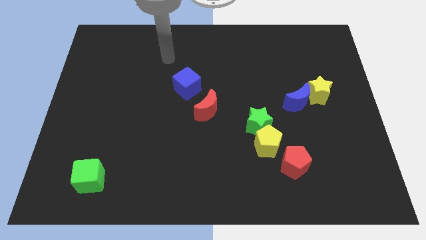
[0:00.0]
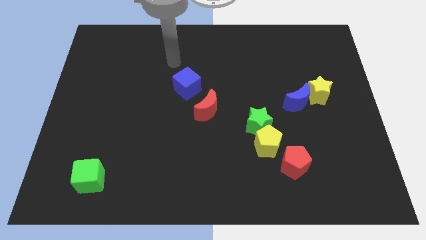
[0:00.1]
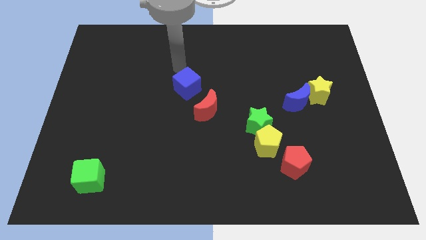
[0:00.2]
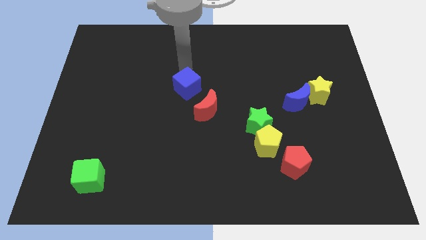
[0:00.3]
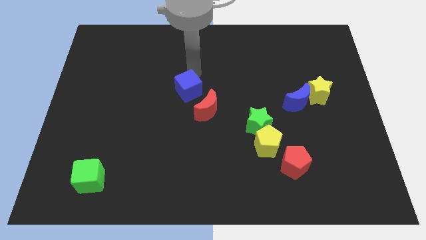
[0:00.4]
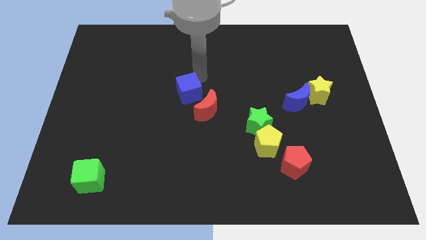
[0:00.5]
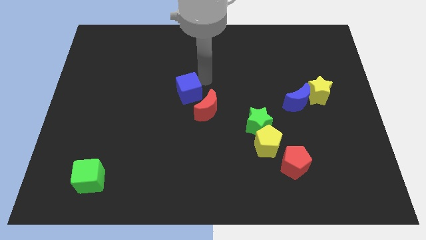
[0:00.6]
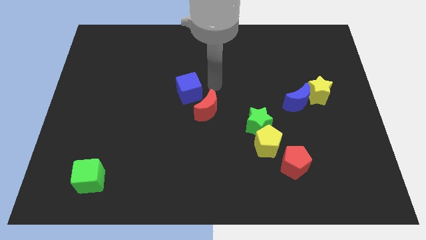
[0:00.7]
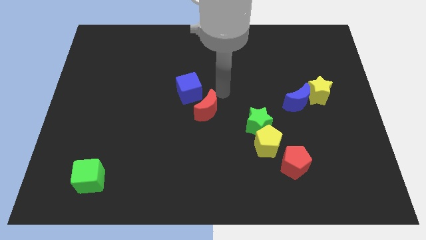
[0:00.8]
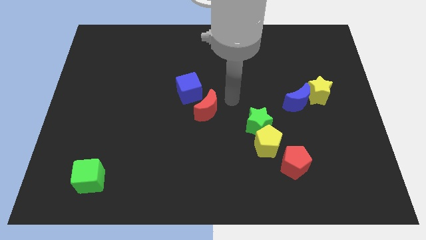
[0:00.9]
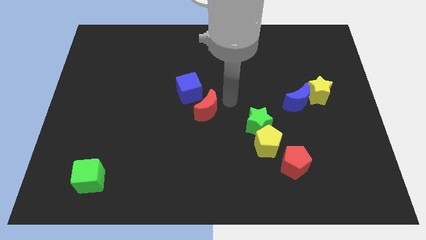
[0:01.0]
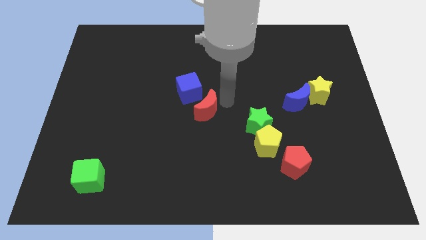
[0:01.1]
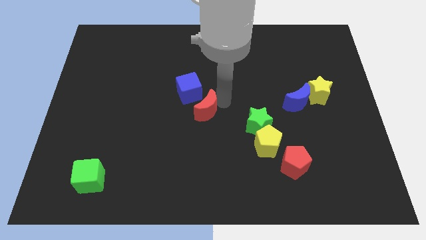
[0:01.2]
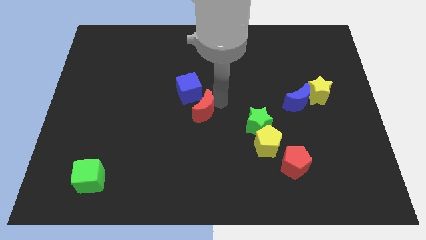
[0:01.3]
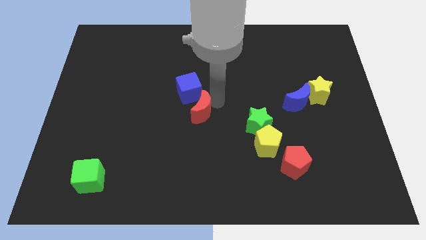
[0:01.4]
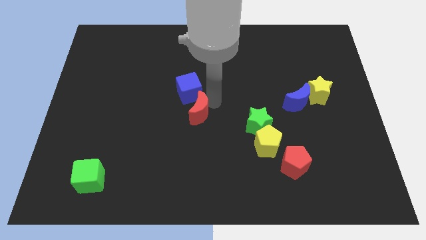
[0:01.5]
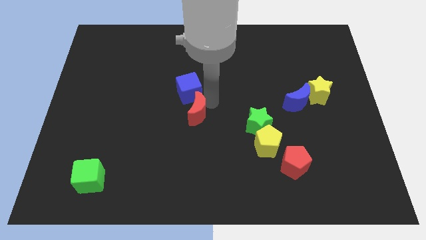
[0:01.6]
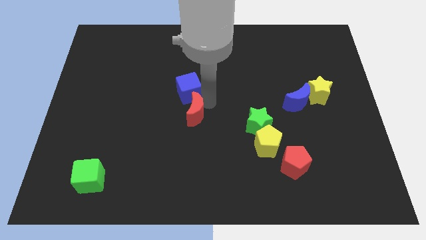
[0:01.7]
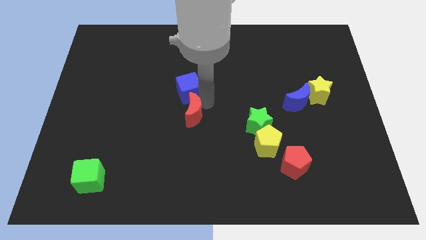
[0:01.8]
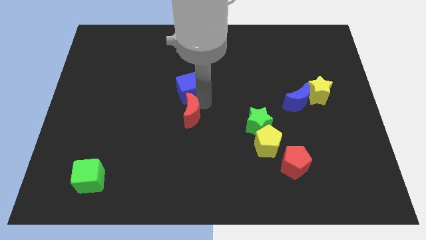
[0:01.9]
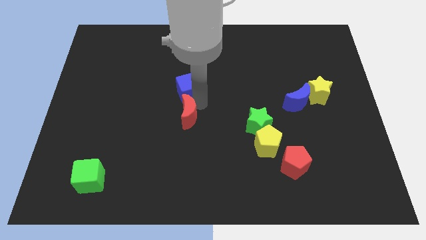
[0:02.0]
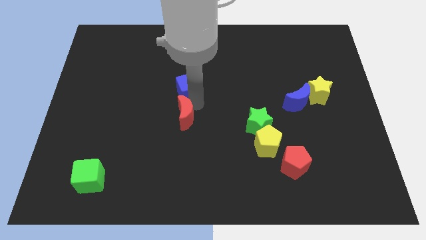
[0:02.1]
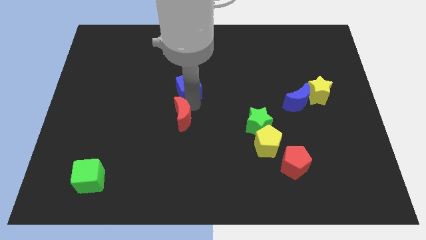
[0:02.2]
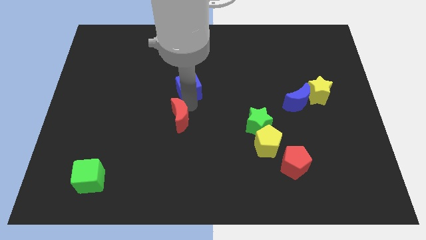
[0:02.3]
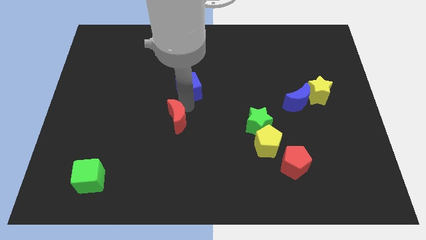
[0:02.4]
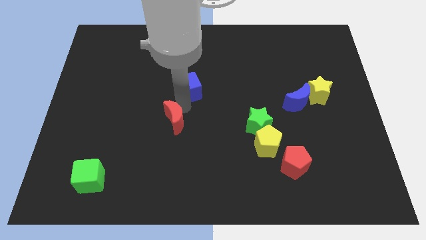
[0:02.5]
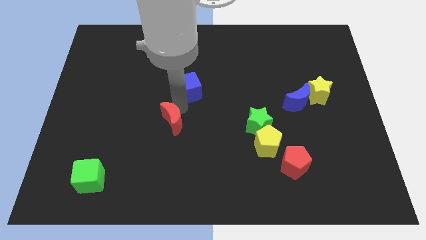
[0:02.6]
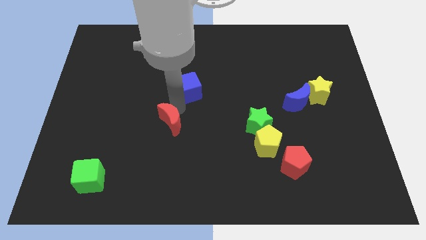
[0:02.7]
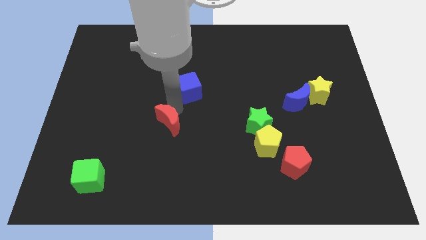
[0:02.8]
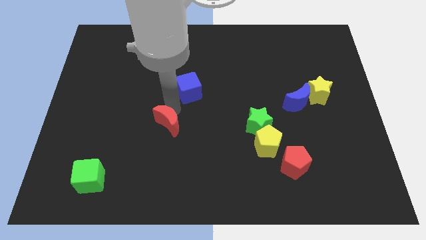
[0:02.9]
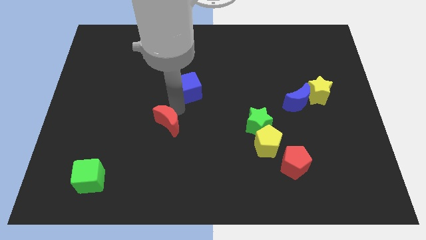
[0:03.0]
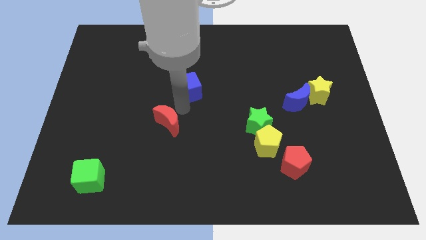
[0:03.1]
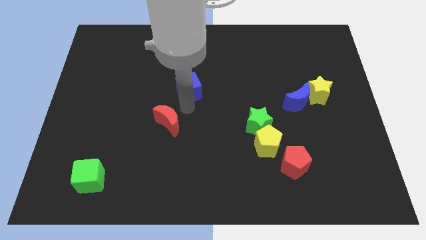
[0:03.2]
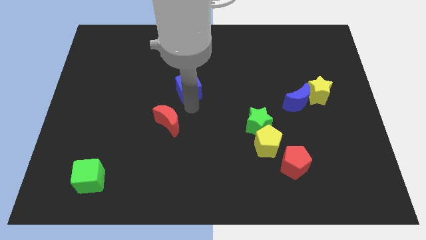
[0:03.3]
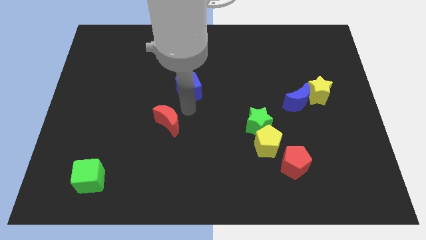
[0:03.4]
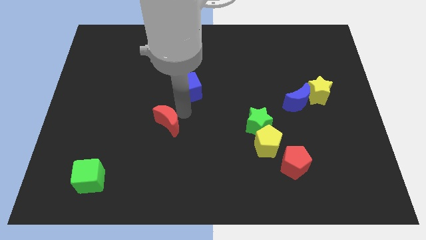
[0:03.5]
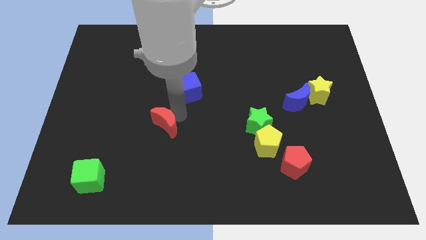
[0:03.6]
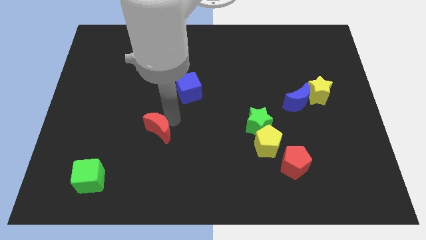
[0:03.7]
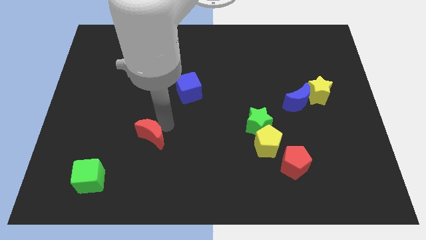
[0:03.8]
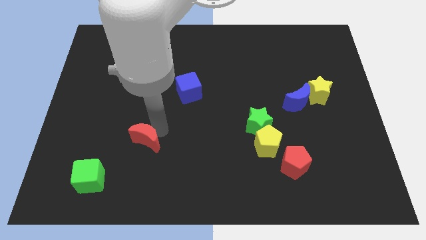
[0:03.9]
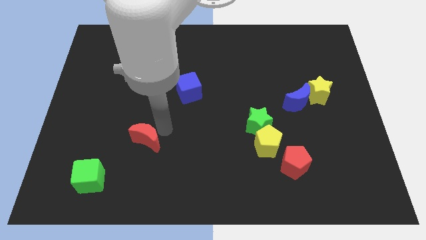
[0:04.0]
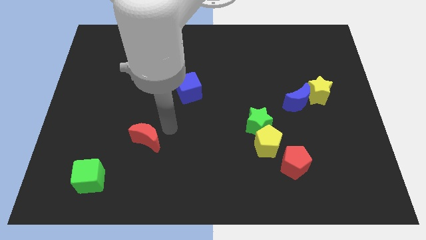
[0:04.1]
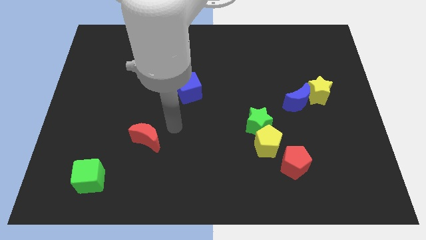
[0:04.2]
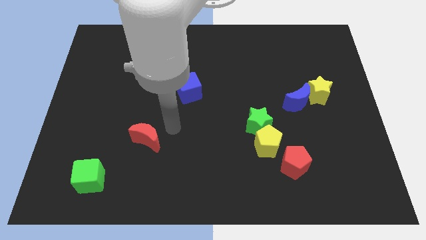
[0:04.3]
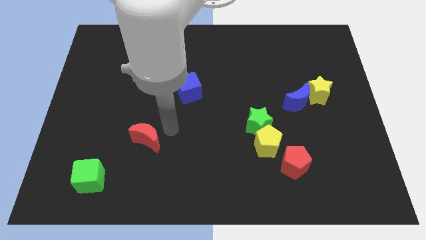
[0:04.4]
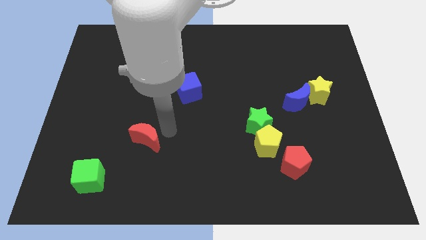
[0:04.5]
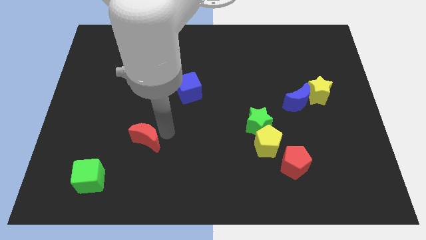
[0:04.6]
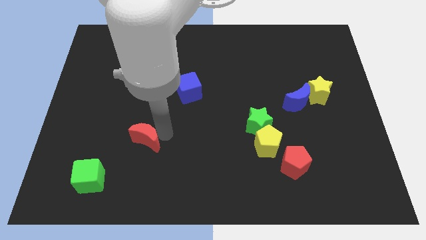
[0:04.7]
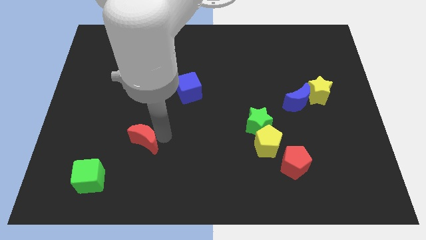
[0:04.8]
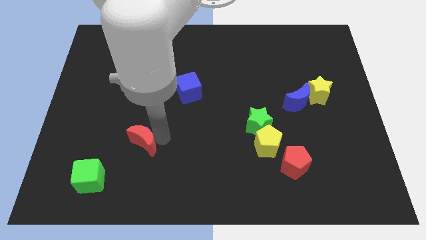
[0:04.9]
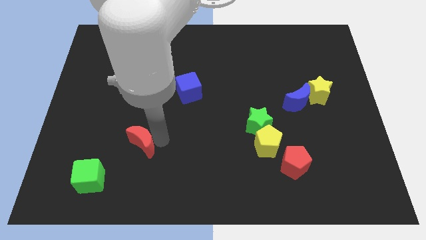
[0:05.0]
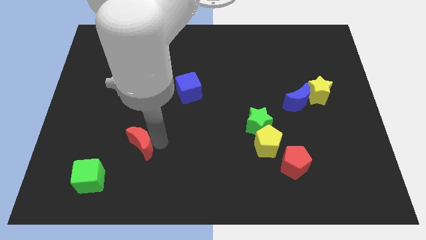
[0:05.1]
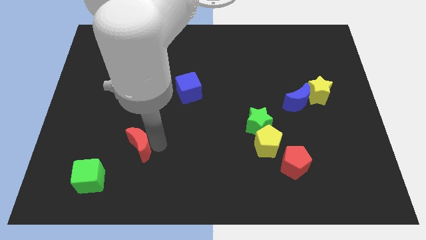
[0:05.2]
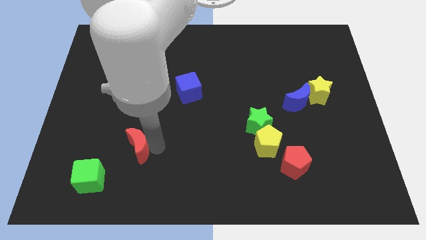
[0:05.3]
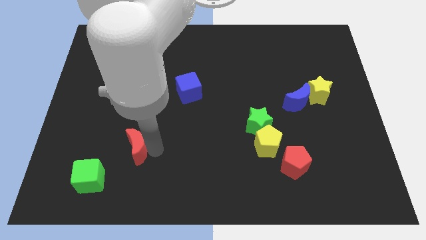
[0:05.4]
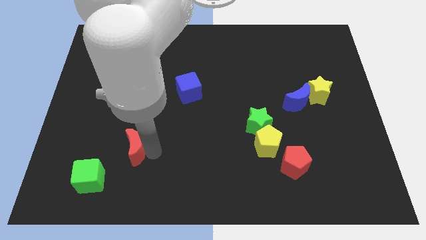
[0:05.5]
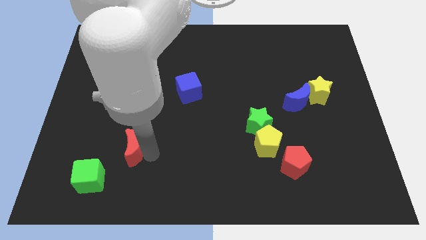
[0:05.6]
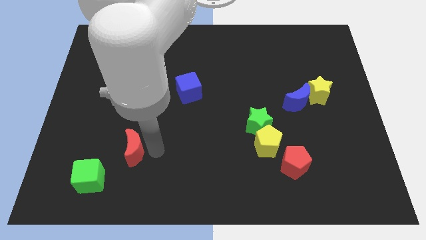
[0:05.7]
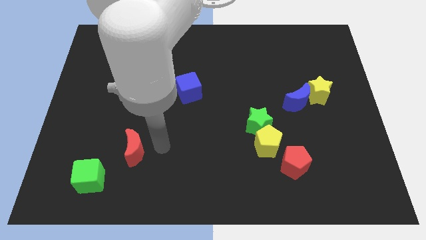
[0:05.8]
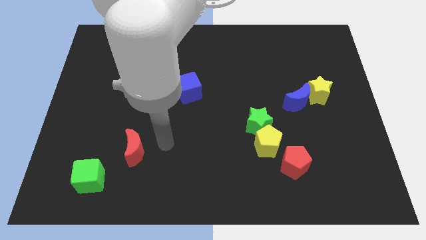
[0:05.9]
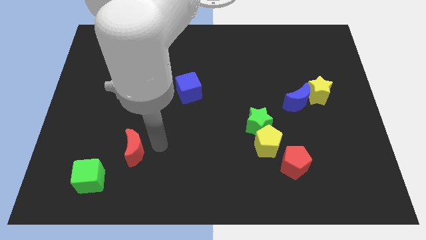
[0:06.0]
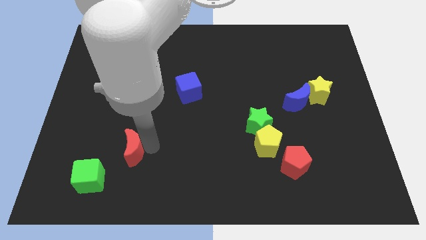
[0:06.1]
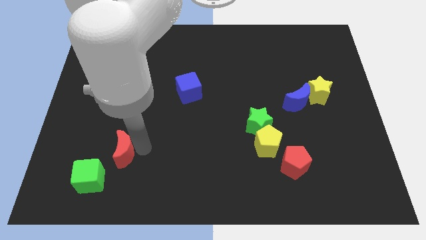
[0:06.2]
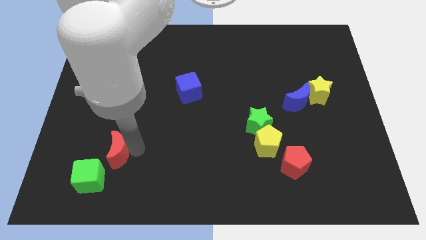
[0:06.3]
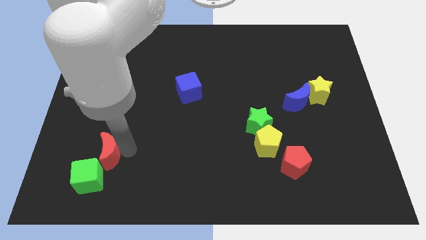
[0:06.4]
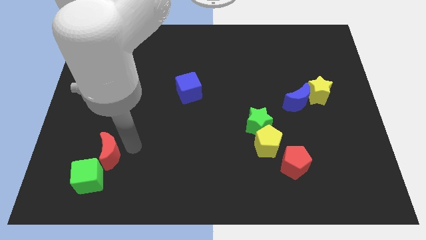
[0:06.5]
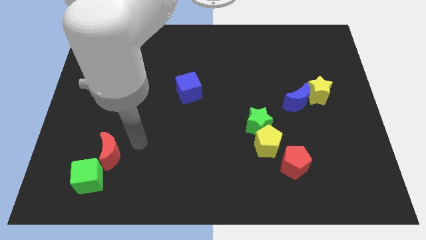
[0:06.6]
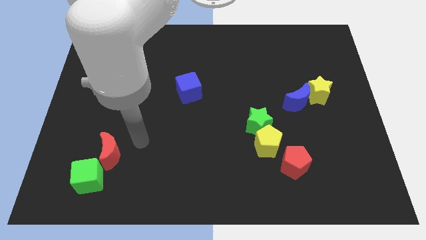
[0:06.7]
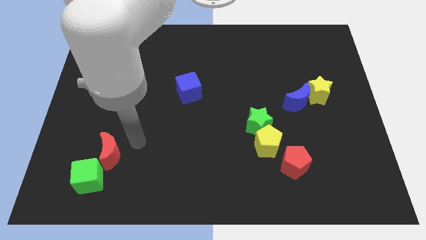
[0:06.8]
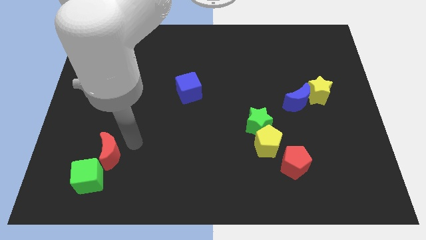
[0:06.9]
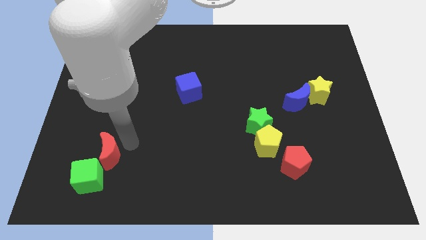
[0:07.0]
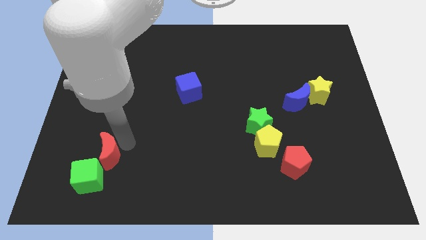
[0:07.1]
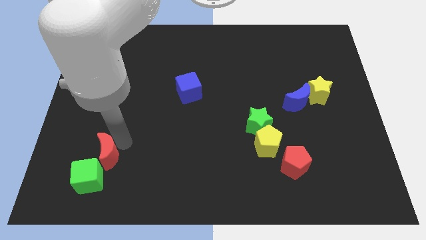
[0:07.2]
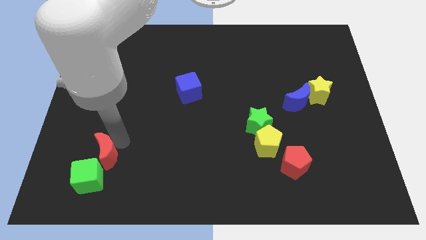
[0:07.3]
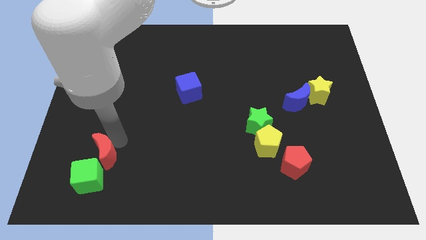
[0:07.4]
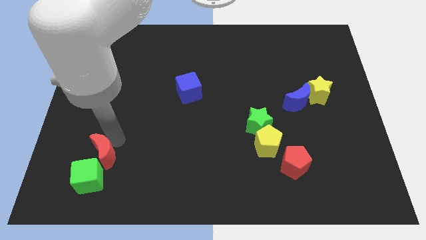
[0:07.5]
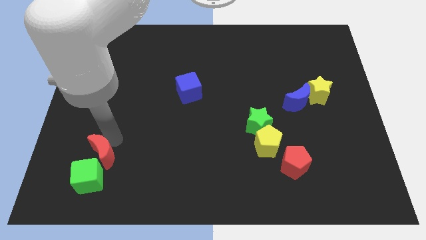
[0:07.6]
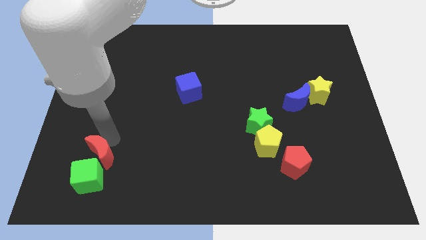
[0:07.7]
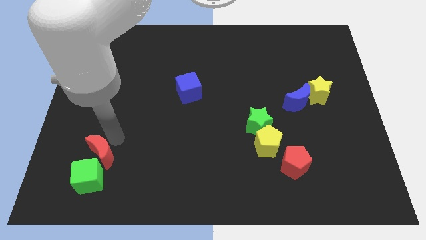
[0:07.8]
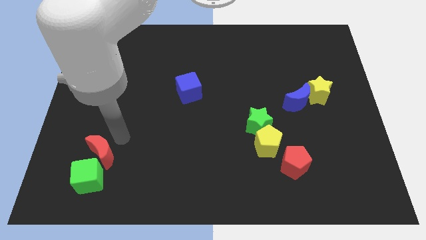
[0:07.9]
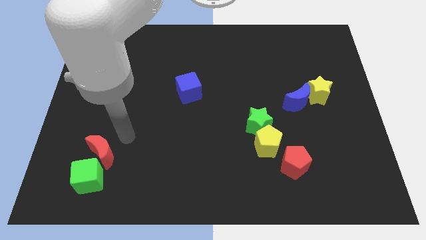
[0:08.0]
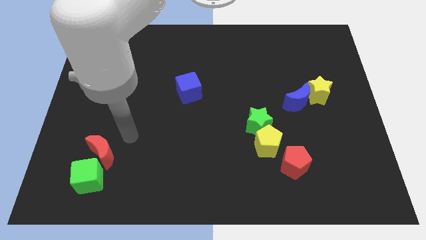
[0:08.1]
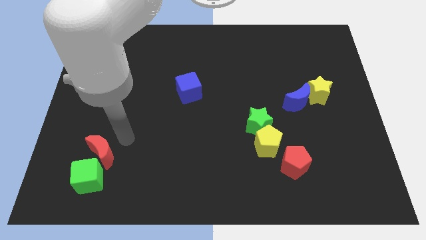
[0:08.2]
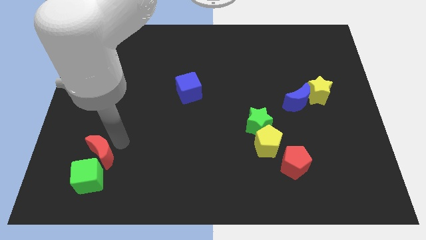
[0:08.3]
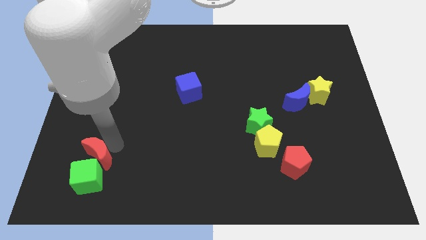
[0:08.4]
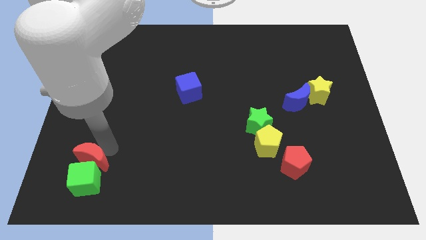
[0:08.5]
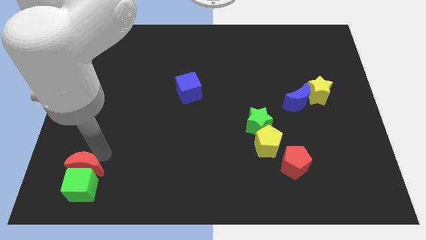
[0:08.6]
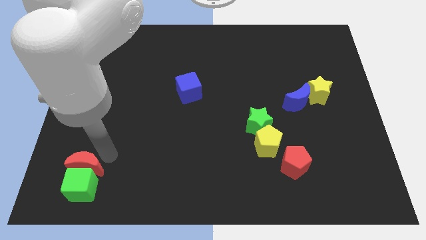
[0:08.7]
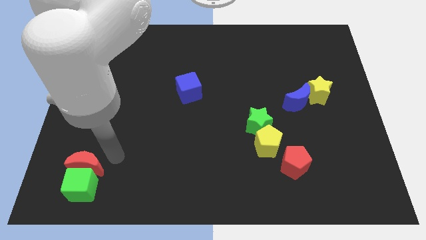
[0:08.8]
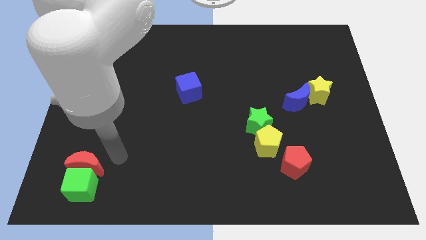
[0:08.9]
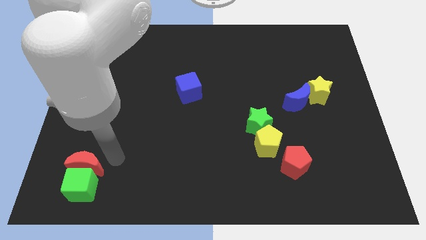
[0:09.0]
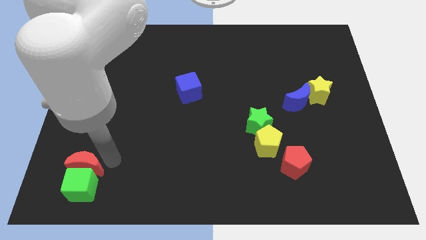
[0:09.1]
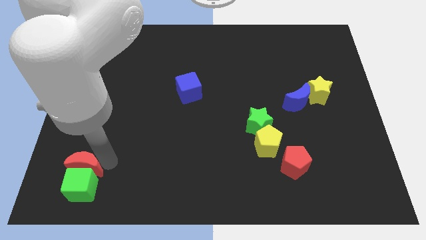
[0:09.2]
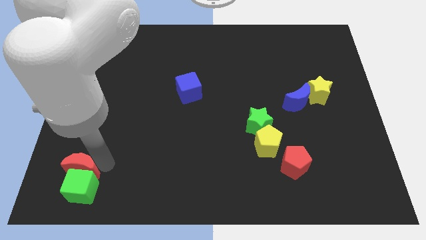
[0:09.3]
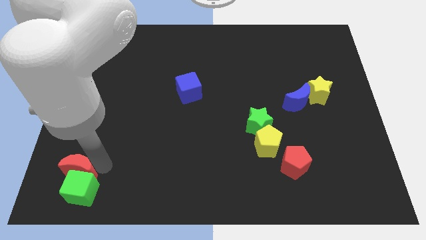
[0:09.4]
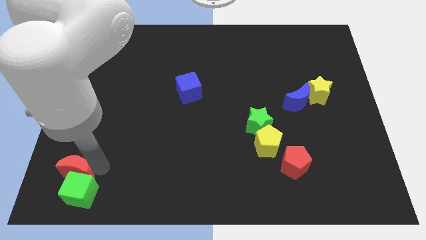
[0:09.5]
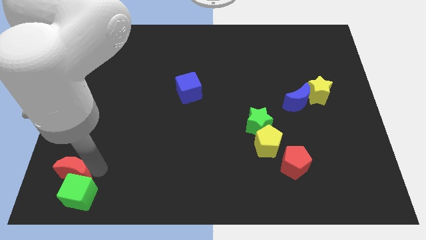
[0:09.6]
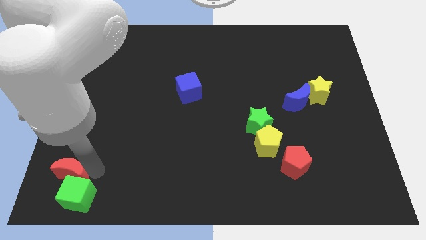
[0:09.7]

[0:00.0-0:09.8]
move the red moon to the bottom left
